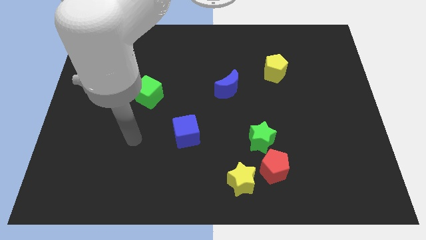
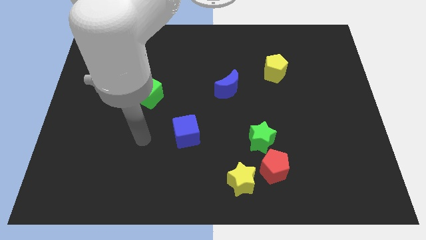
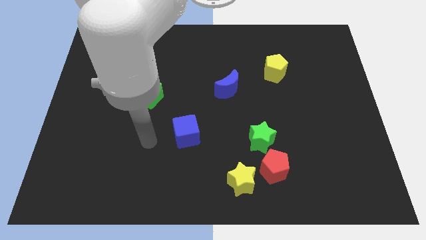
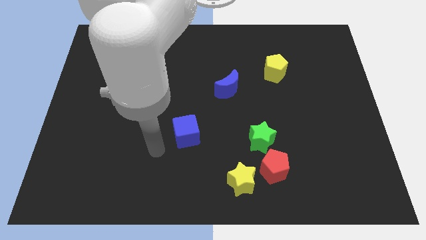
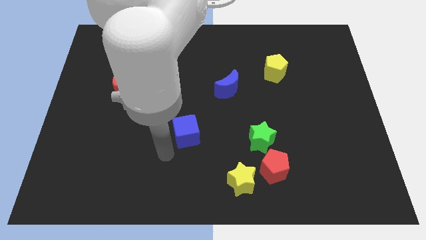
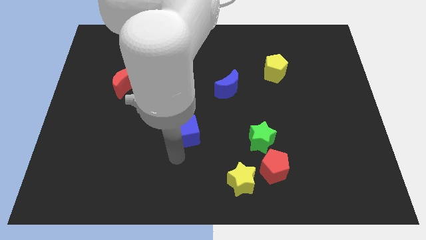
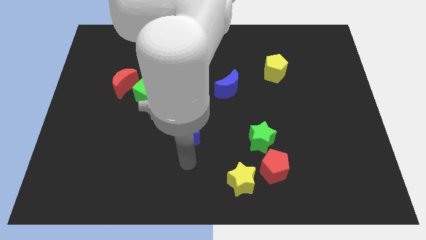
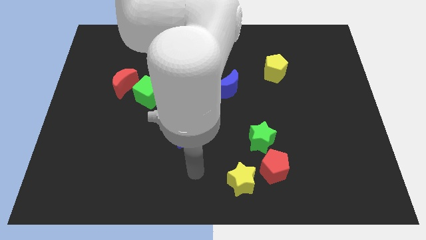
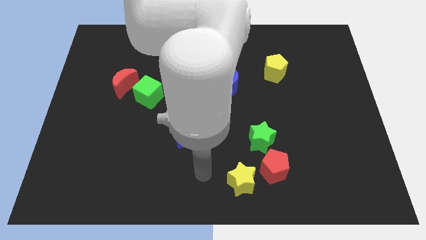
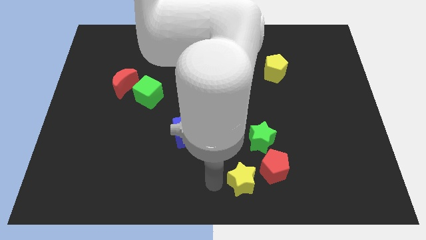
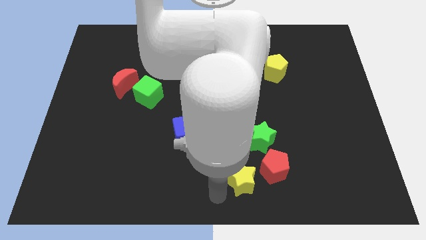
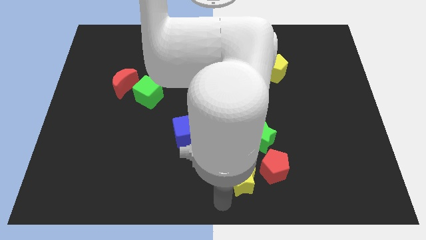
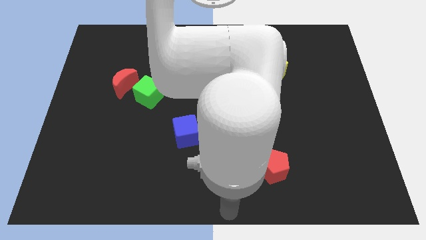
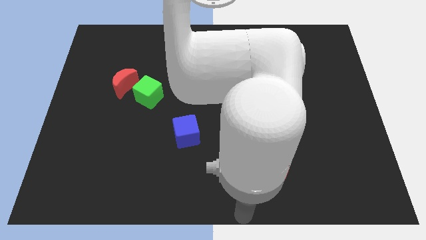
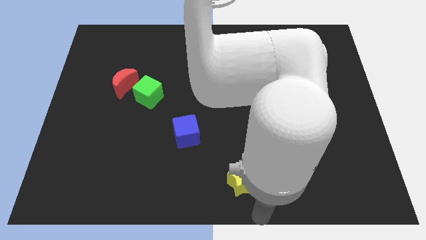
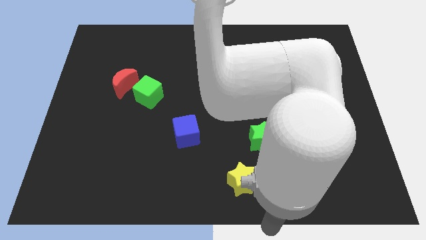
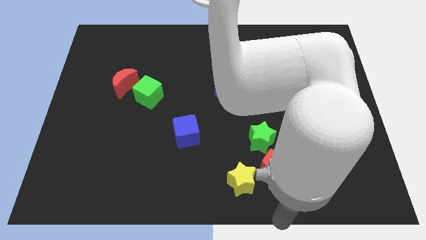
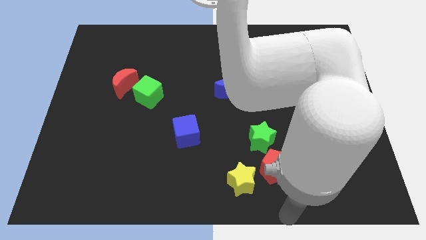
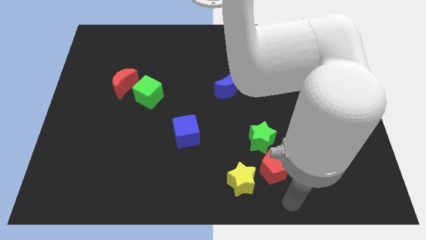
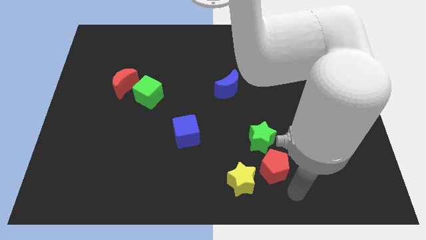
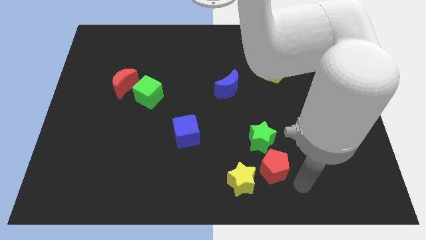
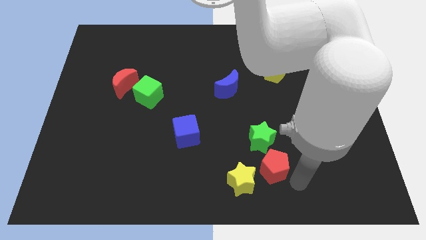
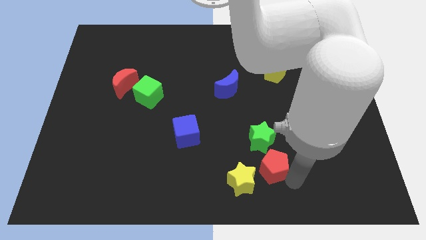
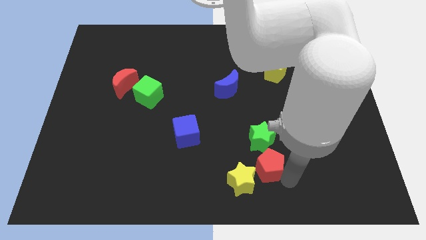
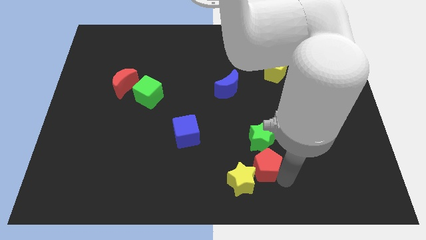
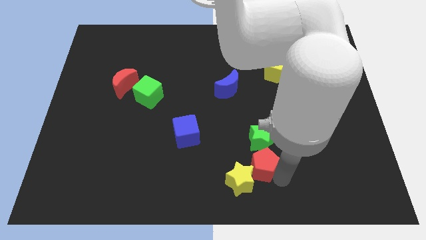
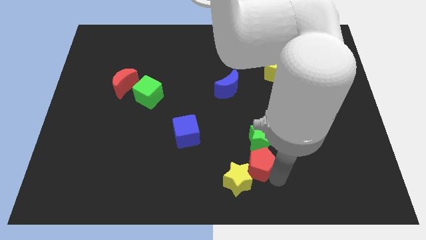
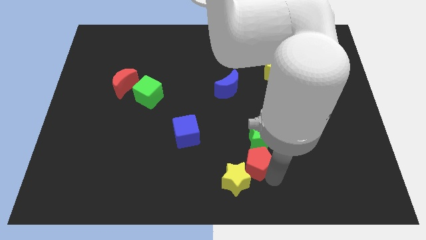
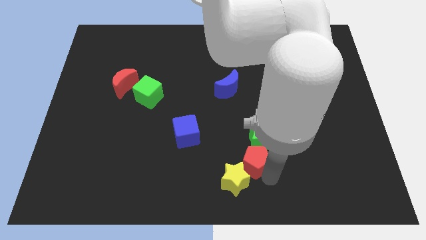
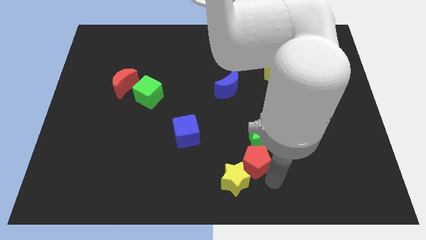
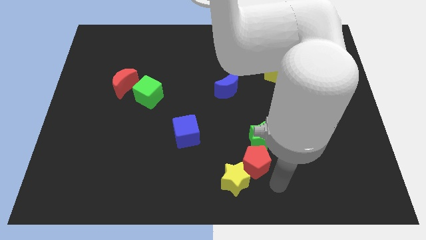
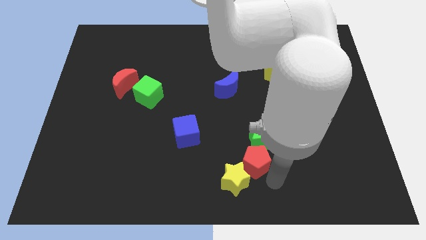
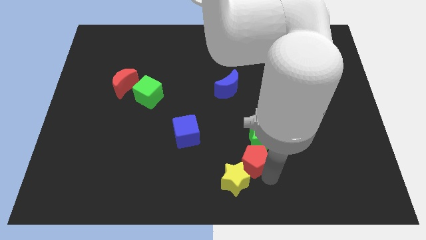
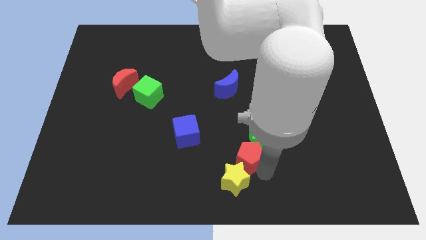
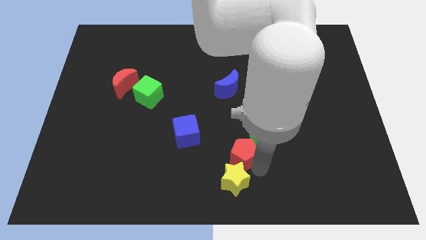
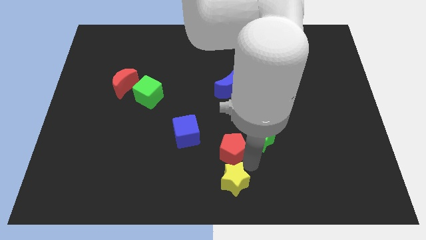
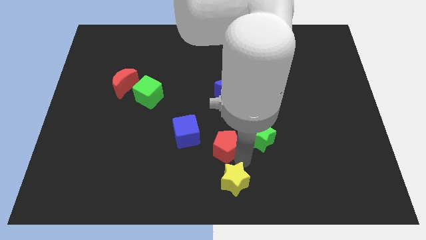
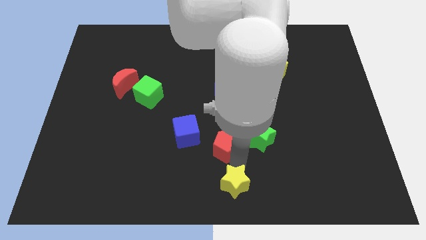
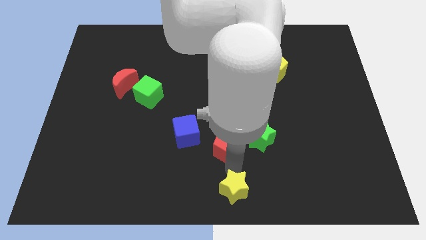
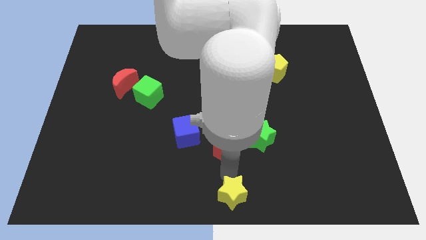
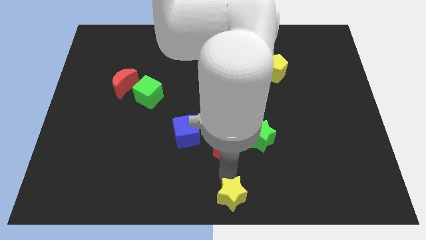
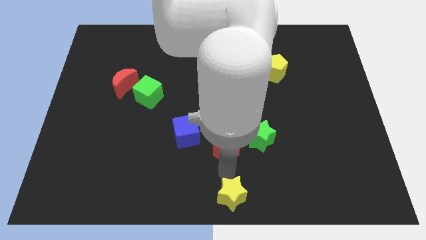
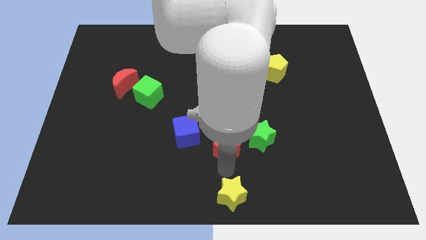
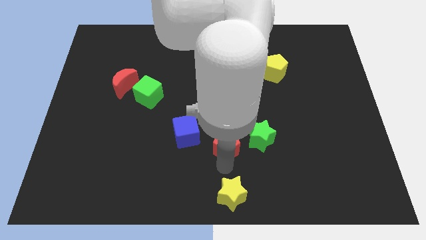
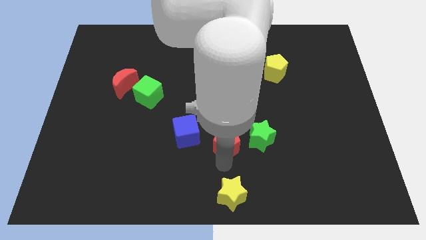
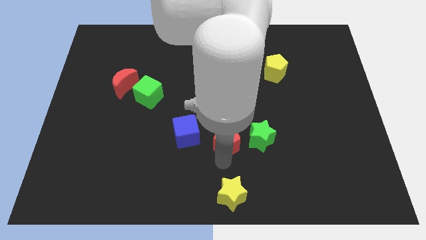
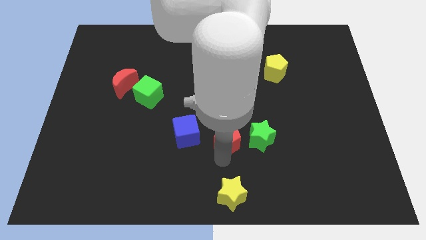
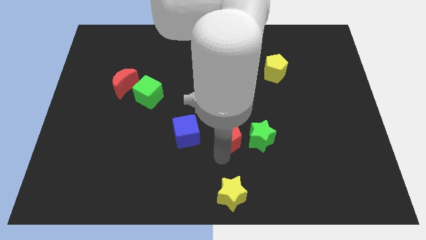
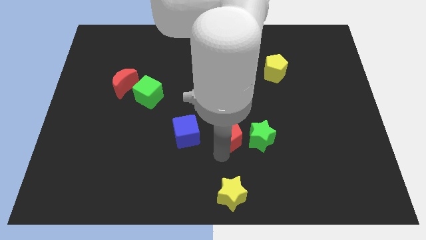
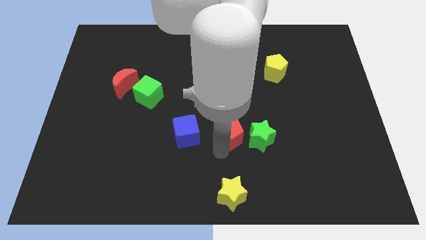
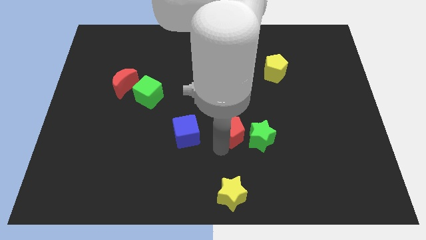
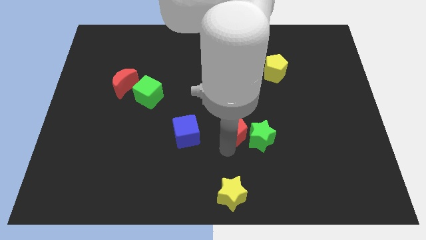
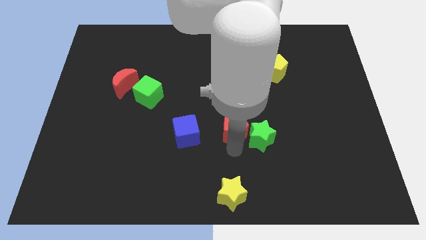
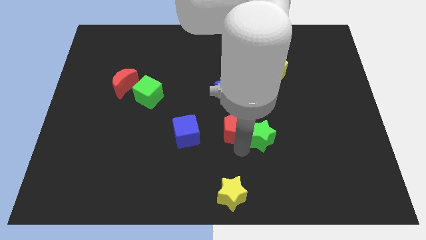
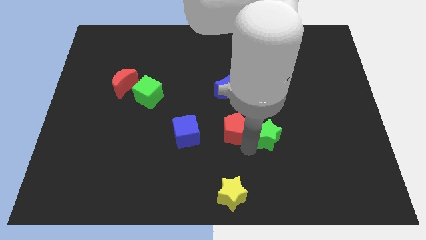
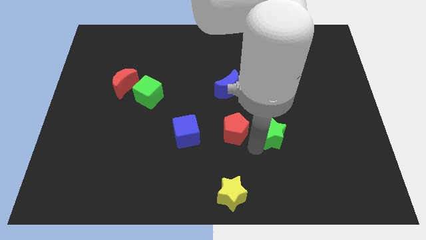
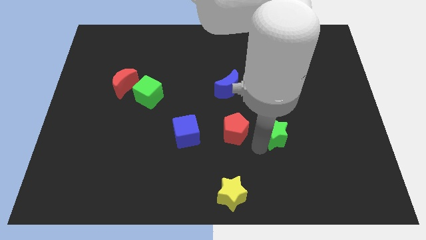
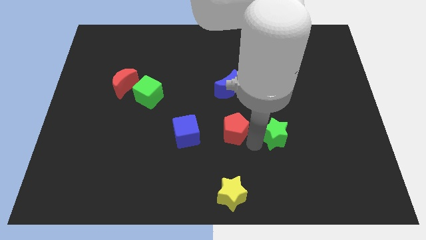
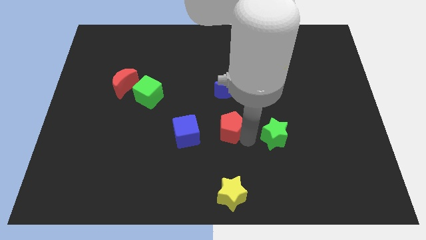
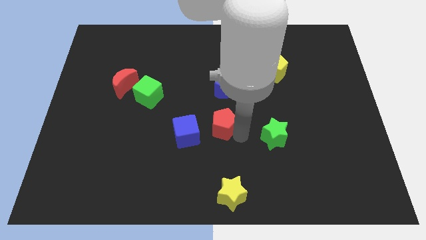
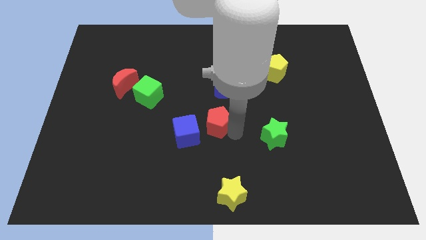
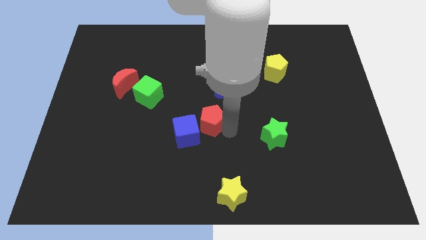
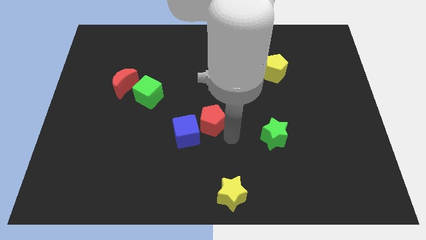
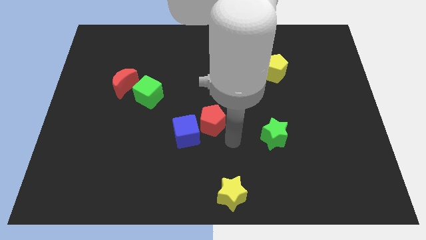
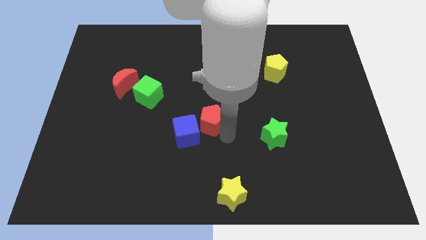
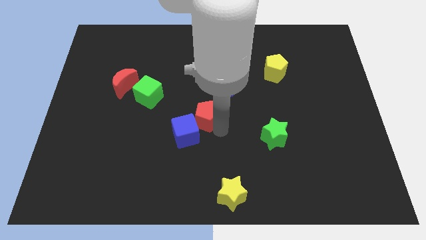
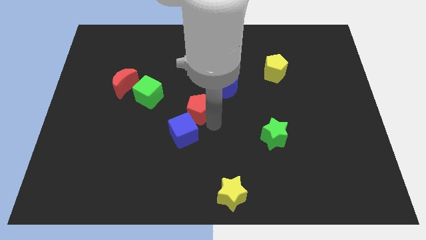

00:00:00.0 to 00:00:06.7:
slide the red pentagon up and then left

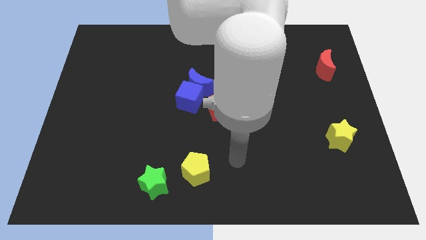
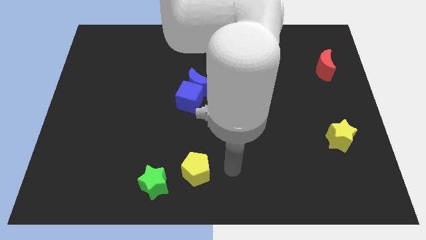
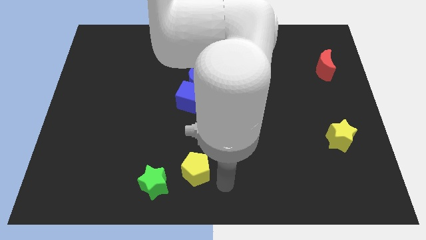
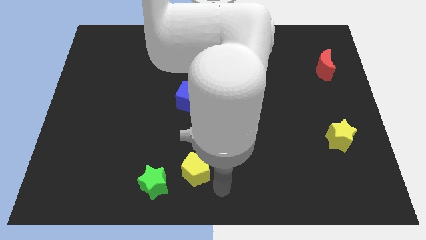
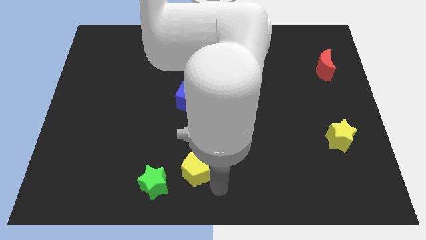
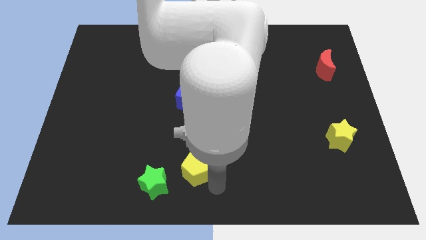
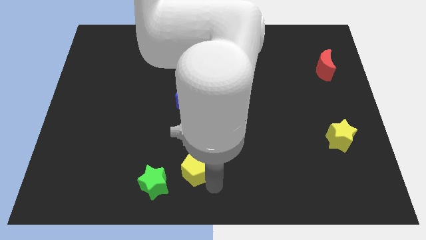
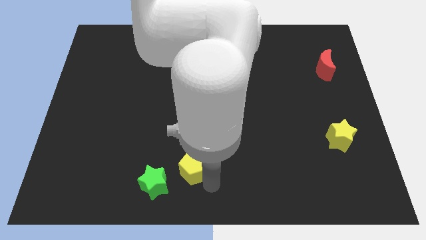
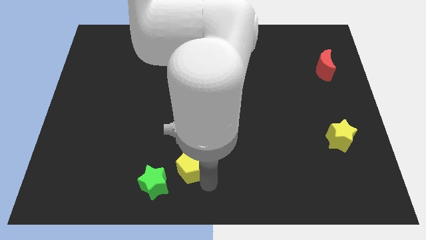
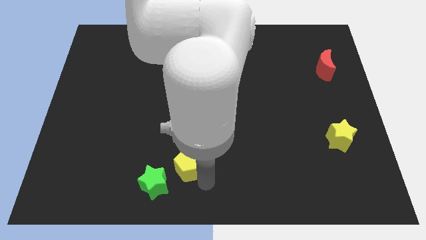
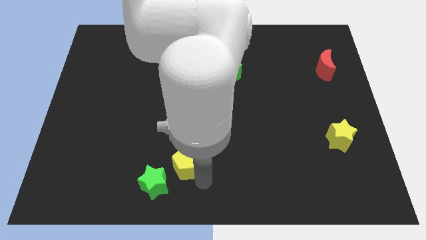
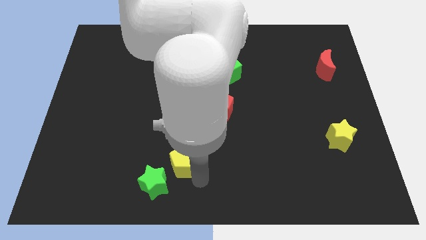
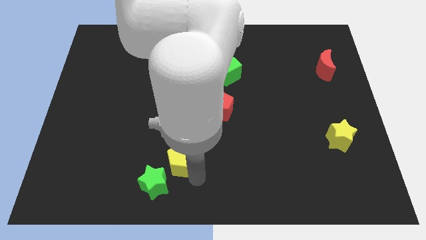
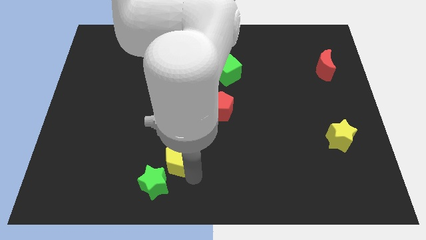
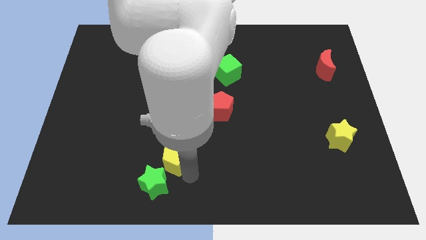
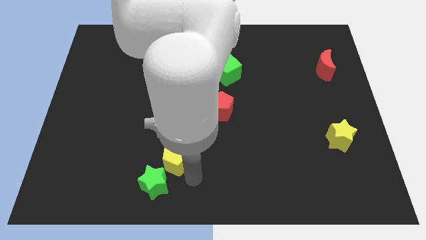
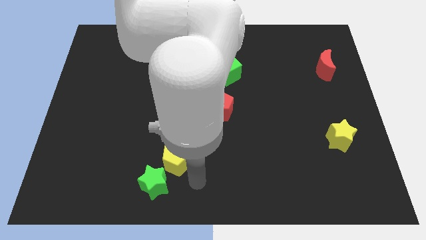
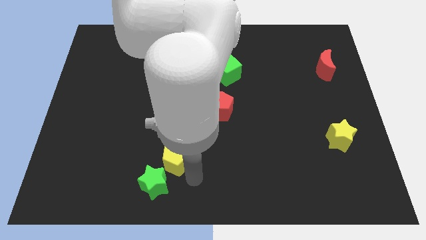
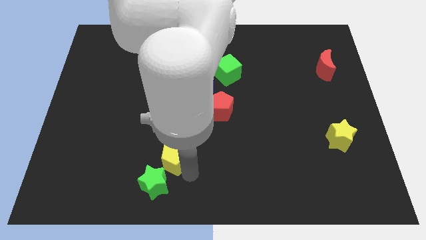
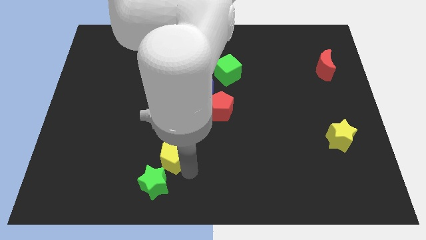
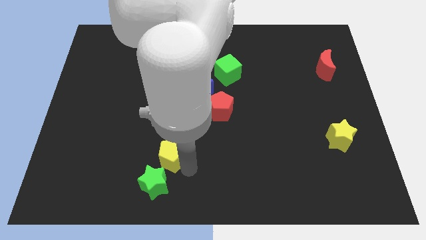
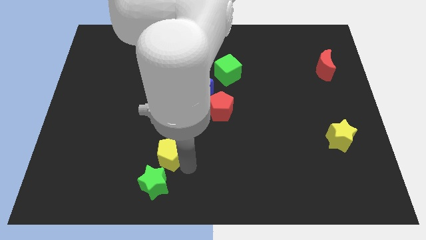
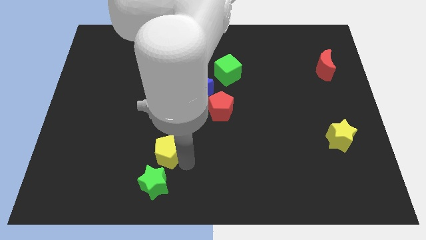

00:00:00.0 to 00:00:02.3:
slide the yellow pentagon slightly diagonally upwards and left
